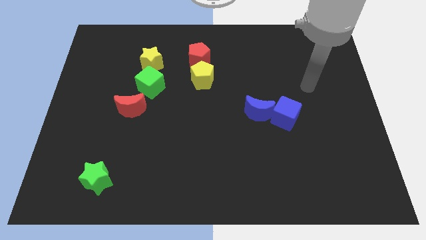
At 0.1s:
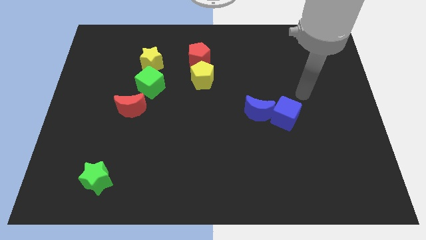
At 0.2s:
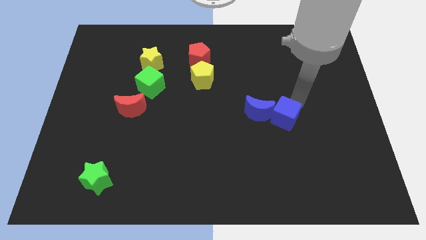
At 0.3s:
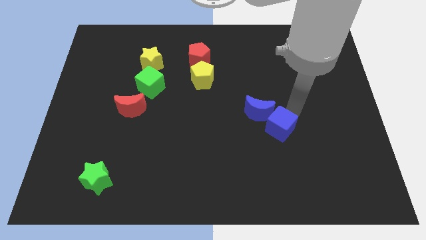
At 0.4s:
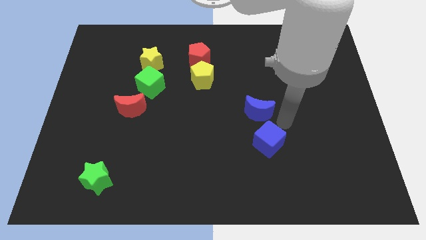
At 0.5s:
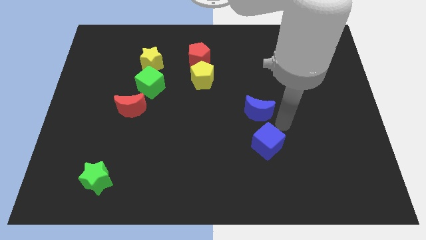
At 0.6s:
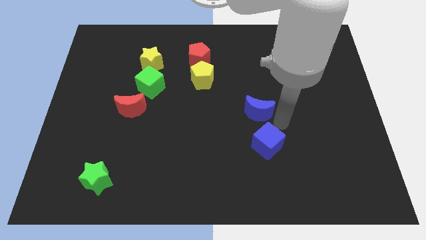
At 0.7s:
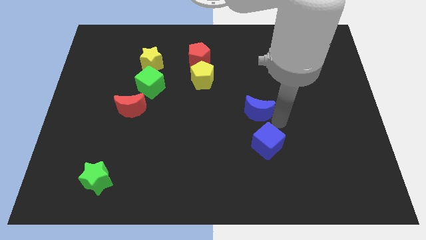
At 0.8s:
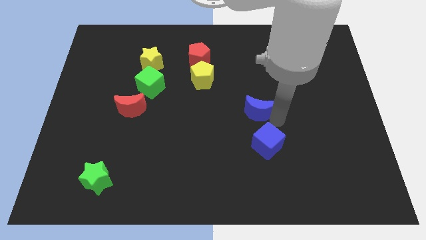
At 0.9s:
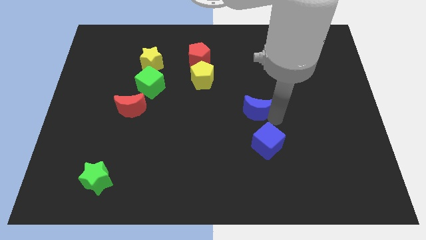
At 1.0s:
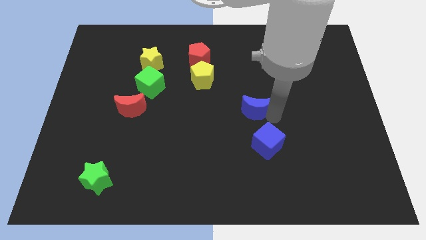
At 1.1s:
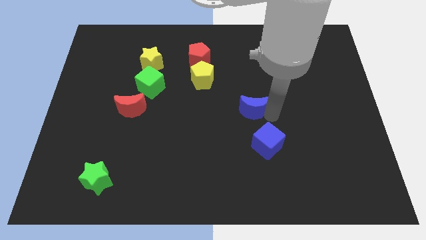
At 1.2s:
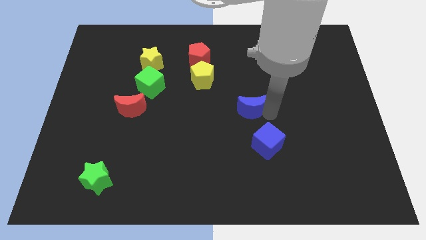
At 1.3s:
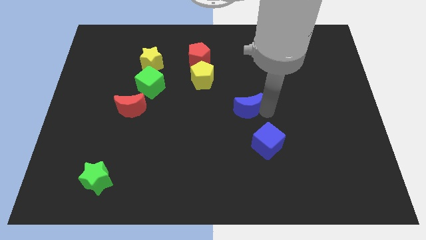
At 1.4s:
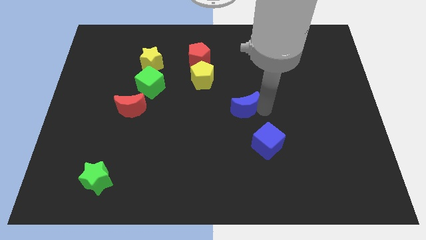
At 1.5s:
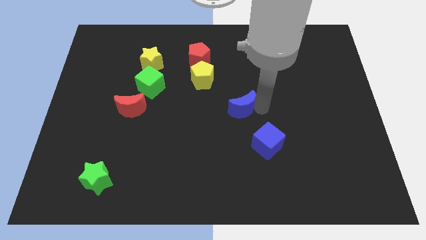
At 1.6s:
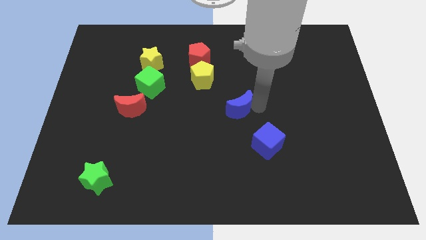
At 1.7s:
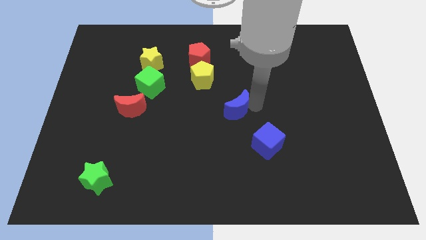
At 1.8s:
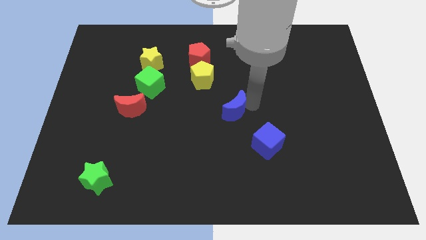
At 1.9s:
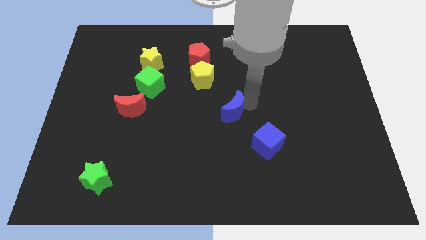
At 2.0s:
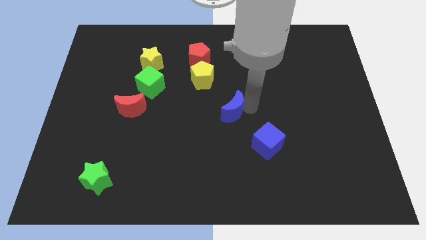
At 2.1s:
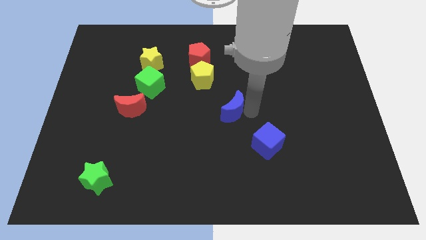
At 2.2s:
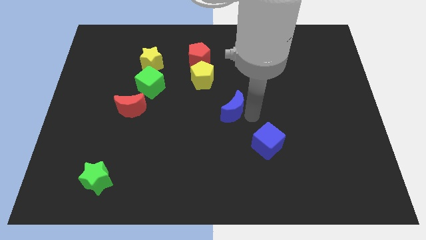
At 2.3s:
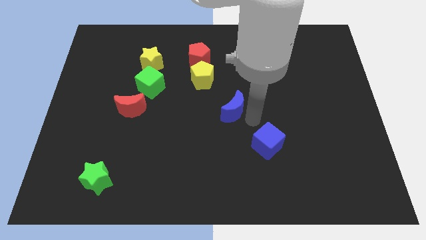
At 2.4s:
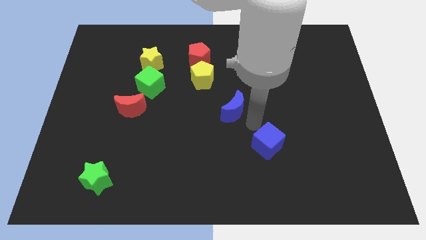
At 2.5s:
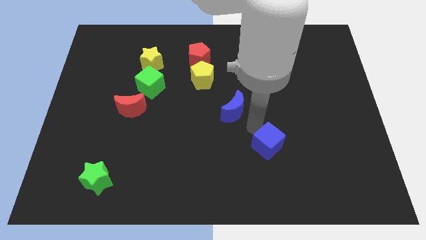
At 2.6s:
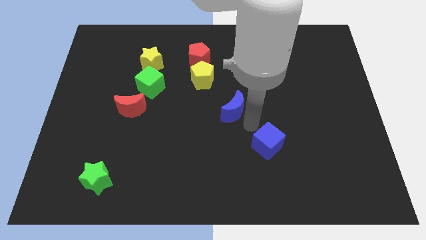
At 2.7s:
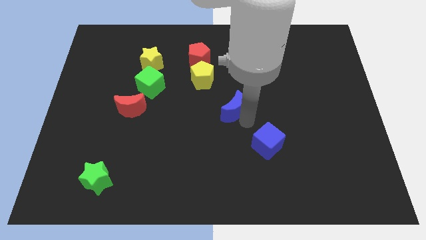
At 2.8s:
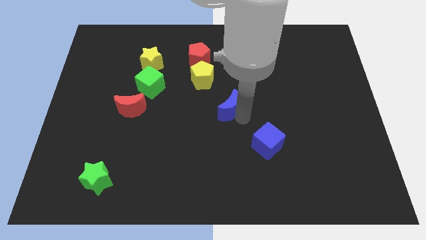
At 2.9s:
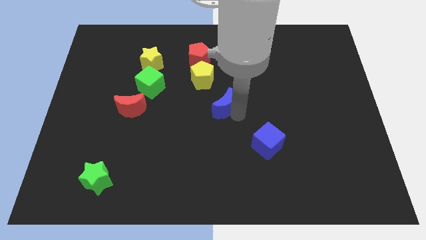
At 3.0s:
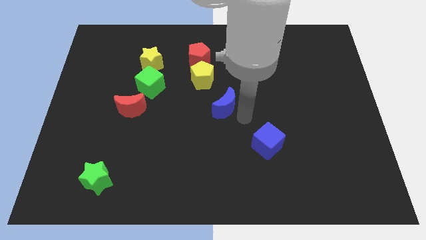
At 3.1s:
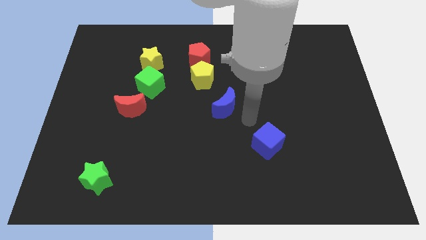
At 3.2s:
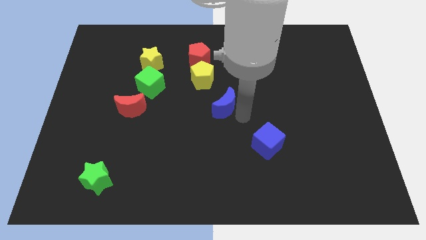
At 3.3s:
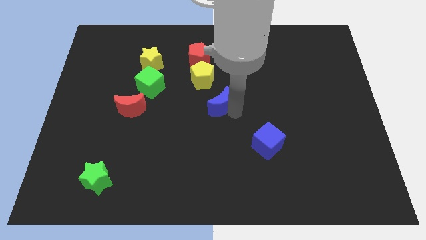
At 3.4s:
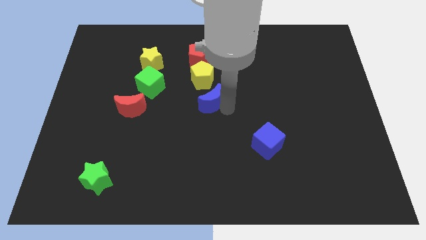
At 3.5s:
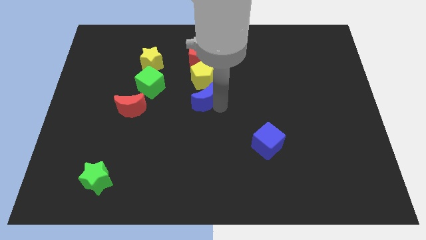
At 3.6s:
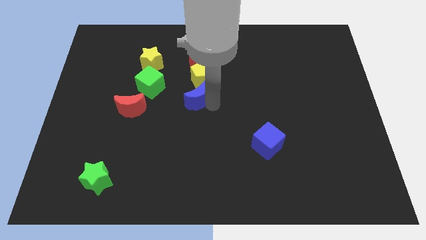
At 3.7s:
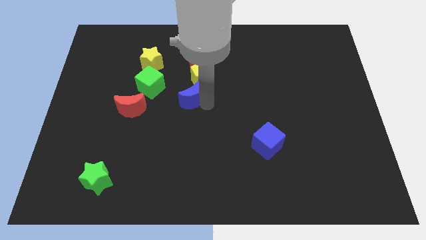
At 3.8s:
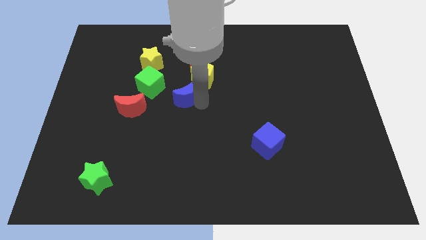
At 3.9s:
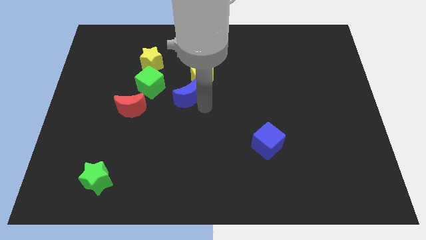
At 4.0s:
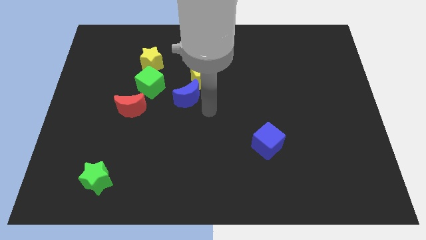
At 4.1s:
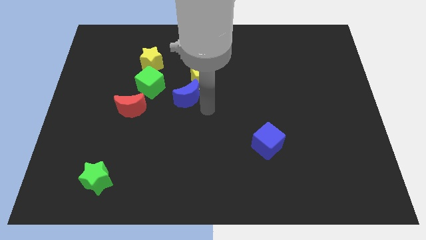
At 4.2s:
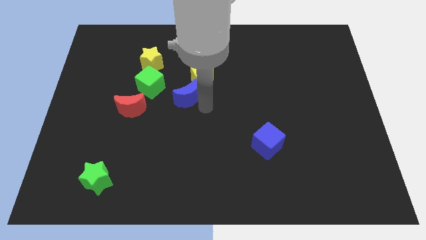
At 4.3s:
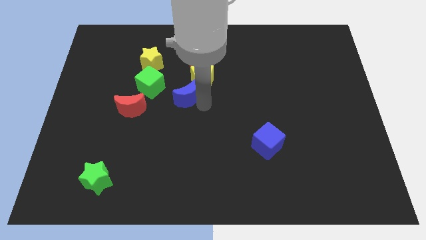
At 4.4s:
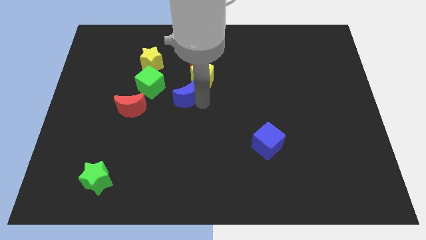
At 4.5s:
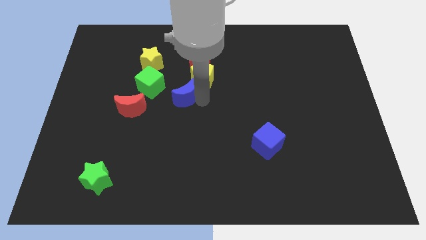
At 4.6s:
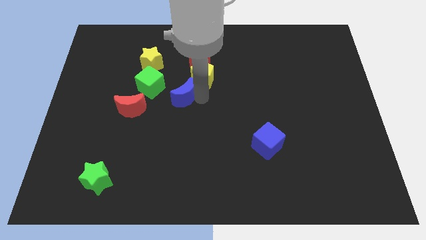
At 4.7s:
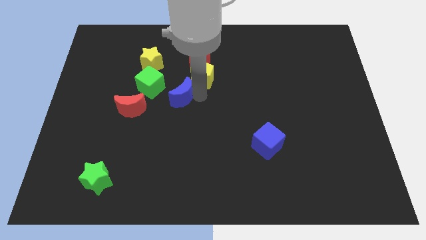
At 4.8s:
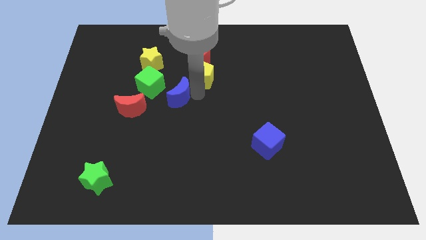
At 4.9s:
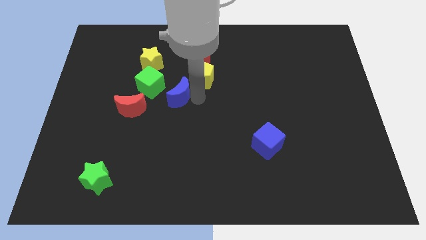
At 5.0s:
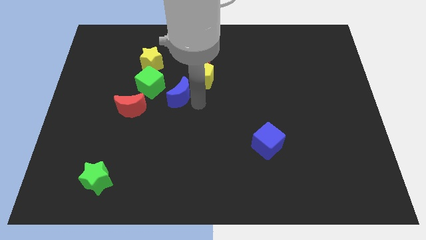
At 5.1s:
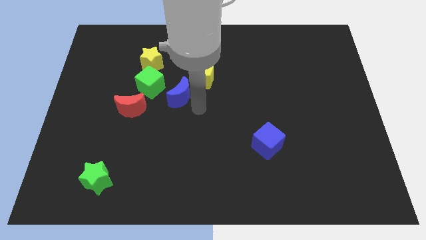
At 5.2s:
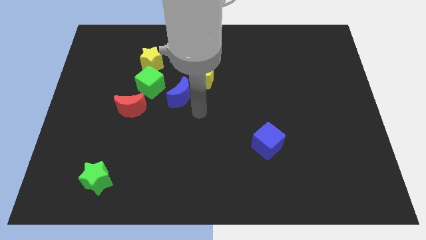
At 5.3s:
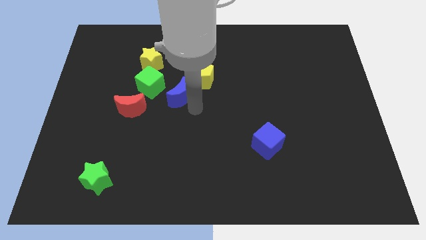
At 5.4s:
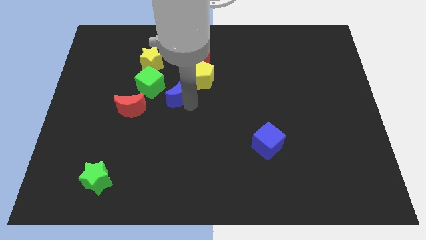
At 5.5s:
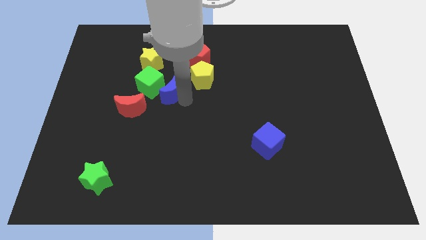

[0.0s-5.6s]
put the blue moon to the top right of the red moon

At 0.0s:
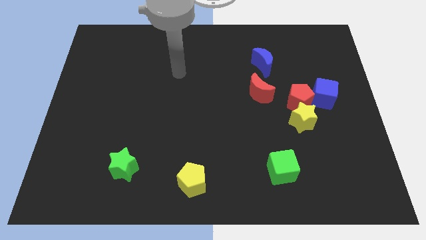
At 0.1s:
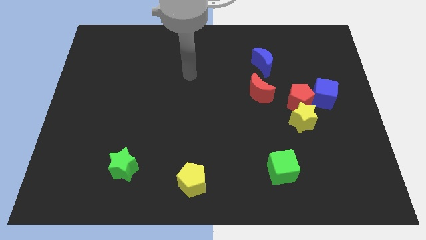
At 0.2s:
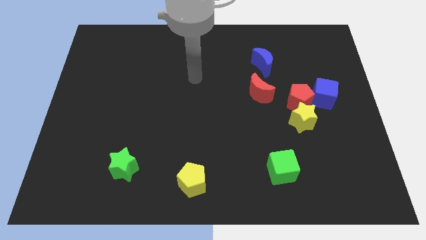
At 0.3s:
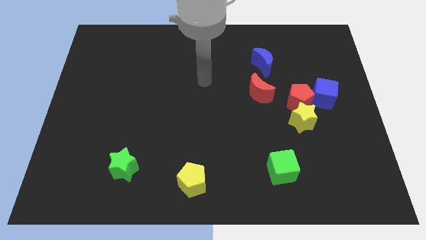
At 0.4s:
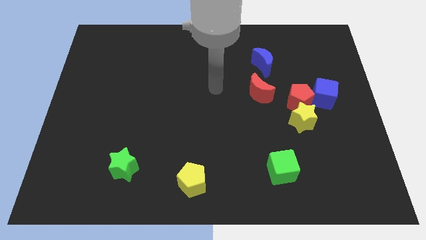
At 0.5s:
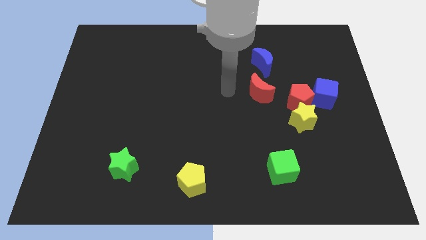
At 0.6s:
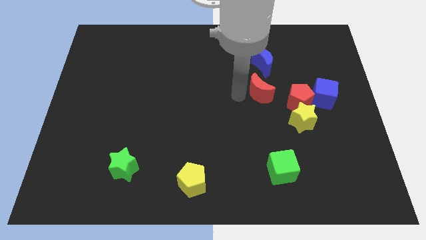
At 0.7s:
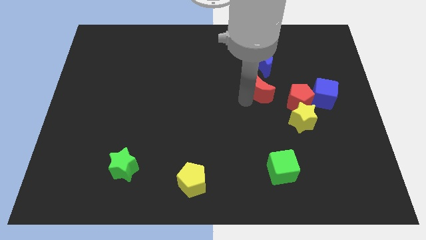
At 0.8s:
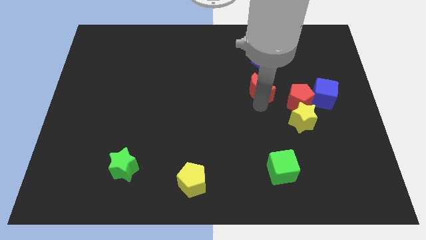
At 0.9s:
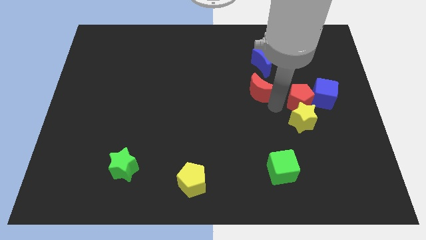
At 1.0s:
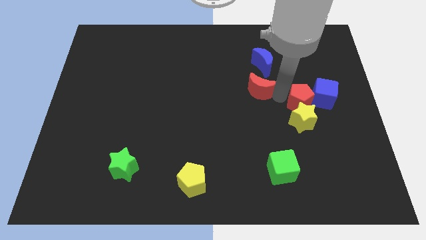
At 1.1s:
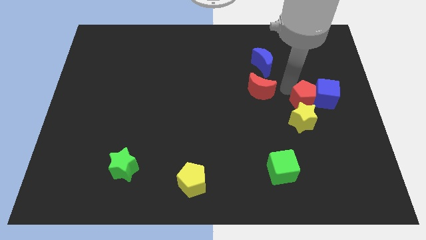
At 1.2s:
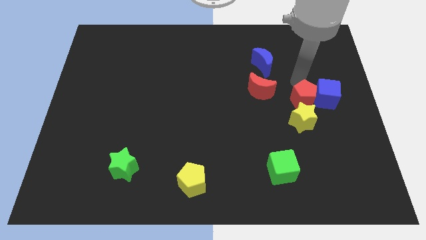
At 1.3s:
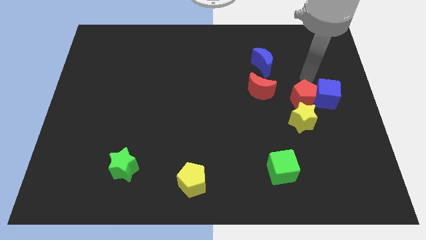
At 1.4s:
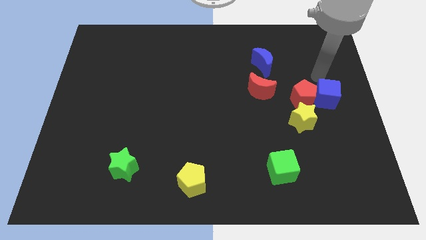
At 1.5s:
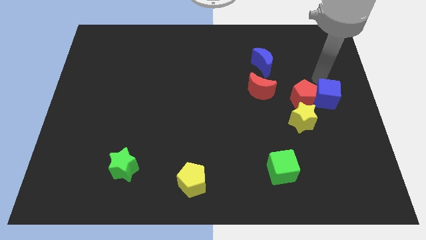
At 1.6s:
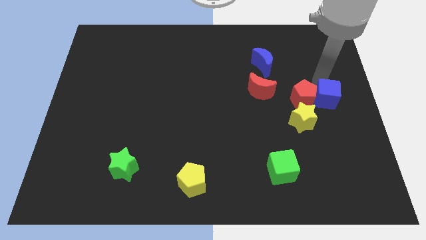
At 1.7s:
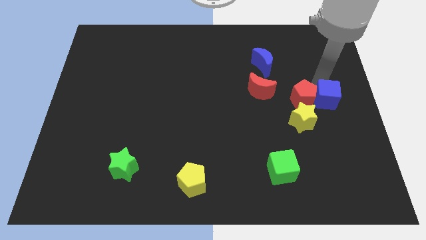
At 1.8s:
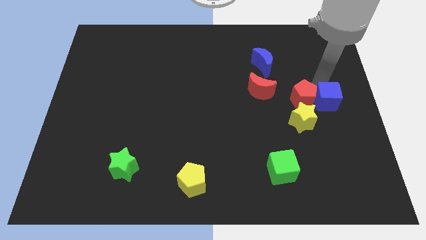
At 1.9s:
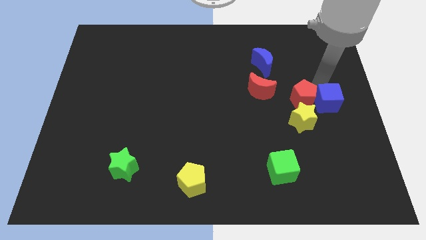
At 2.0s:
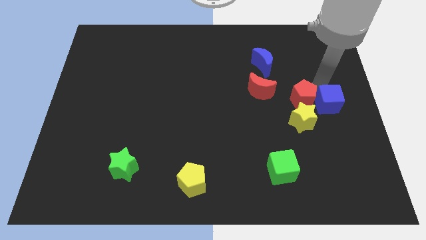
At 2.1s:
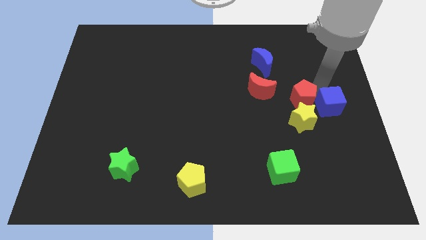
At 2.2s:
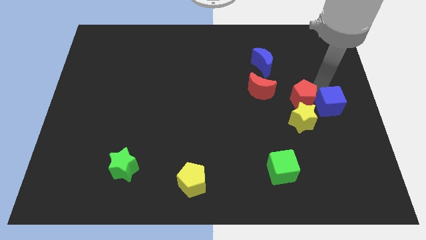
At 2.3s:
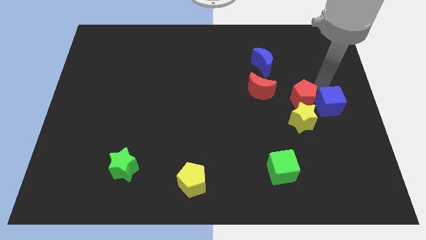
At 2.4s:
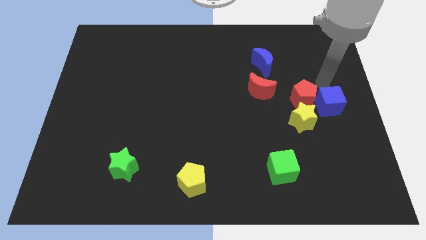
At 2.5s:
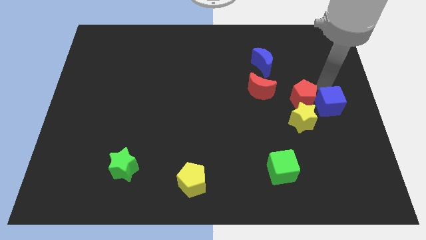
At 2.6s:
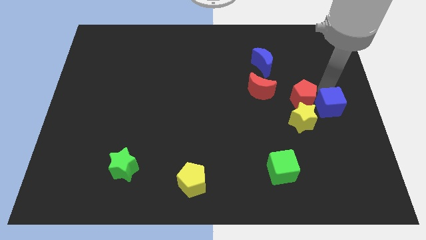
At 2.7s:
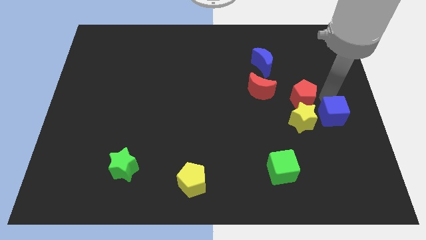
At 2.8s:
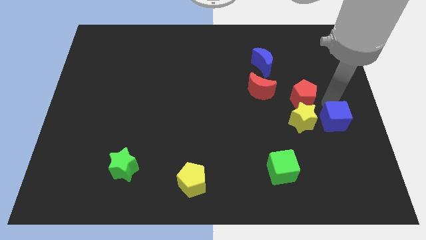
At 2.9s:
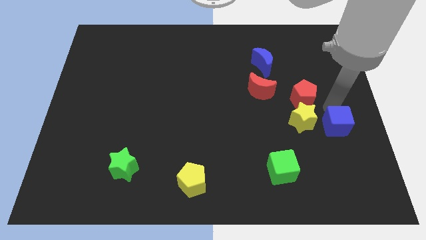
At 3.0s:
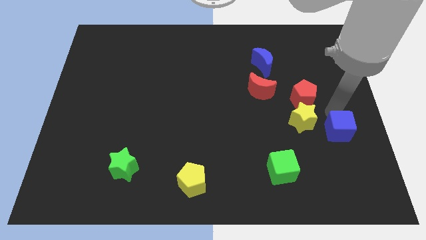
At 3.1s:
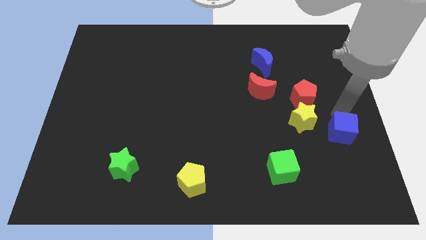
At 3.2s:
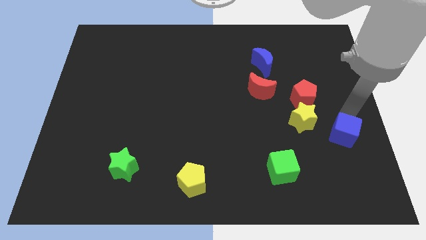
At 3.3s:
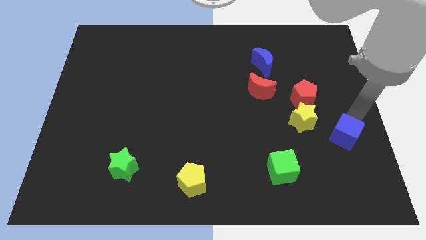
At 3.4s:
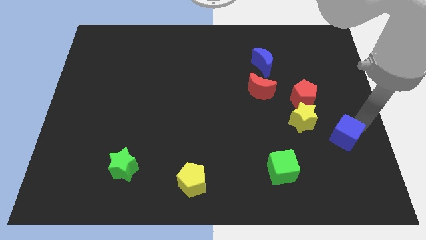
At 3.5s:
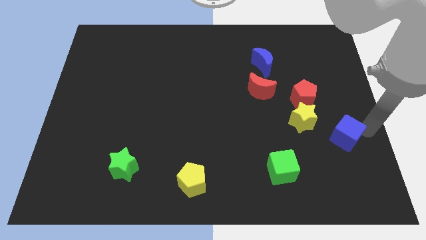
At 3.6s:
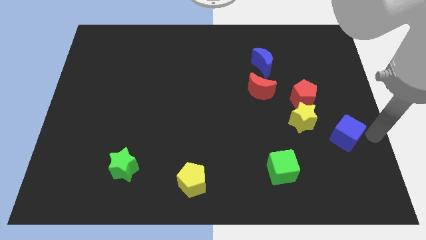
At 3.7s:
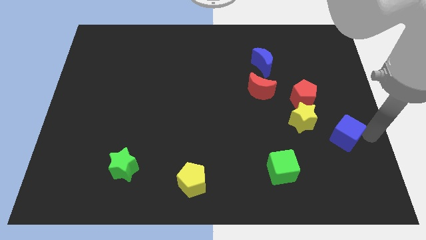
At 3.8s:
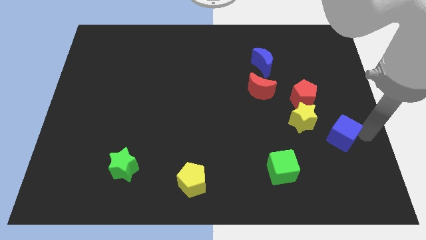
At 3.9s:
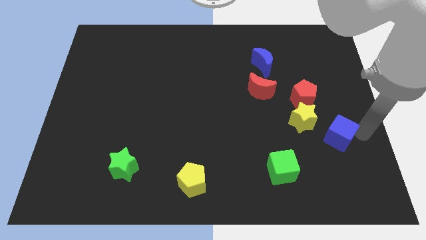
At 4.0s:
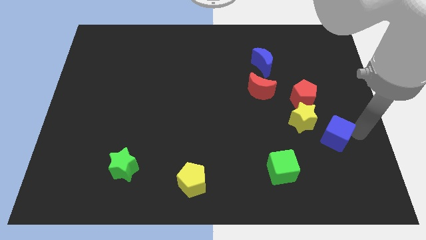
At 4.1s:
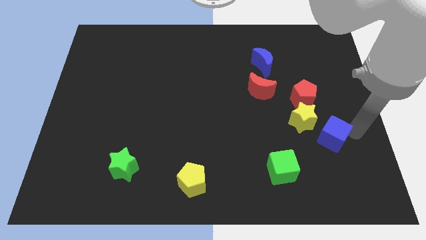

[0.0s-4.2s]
put the blue cube below the red pentagon
